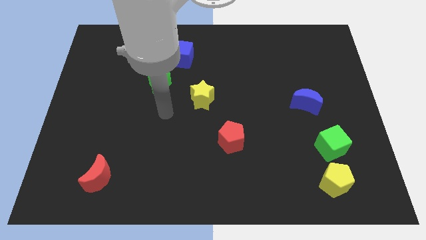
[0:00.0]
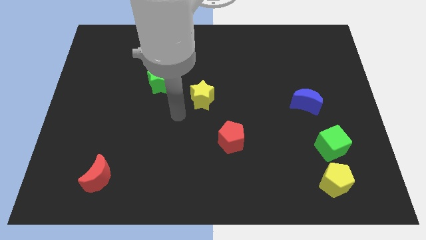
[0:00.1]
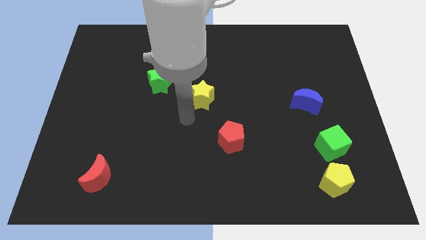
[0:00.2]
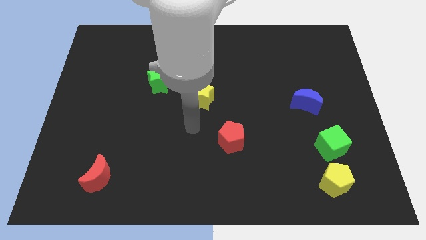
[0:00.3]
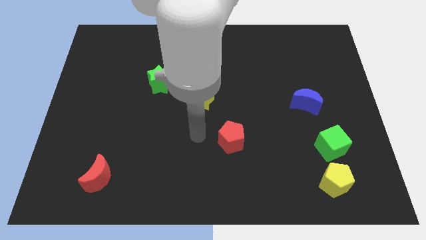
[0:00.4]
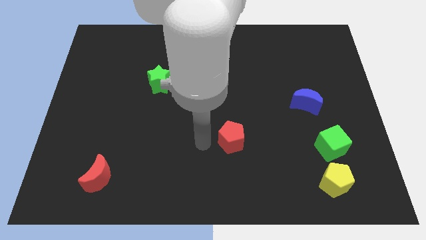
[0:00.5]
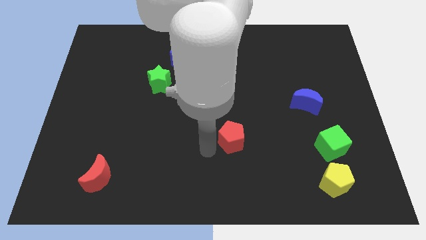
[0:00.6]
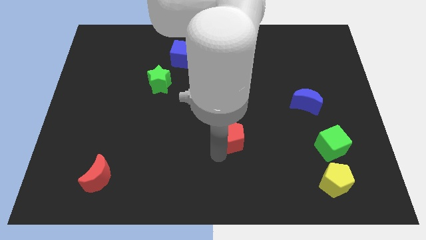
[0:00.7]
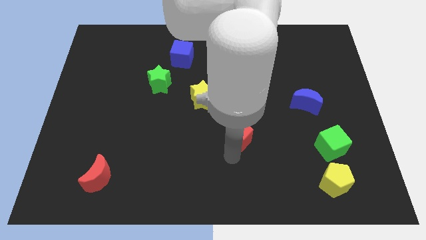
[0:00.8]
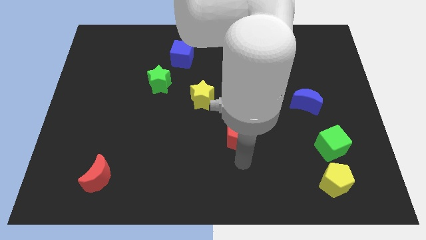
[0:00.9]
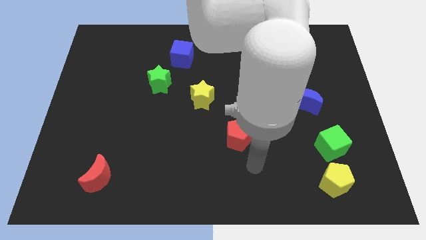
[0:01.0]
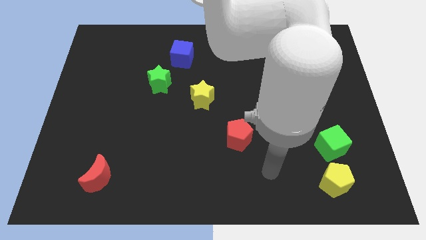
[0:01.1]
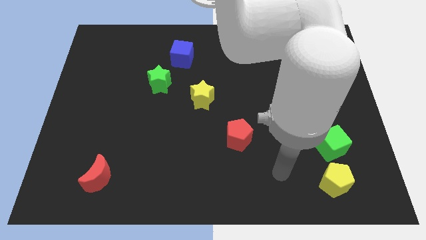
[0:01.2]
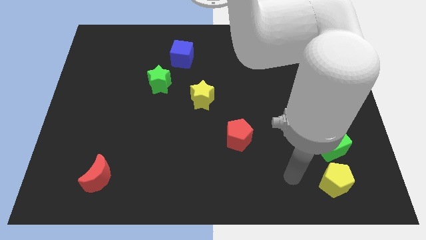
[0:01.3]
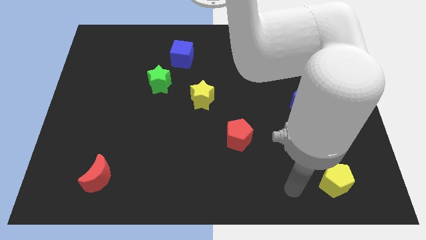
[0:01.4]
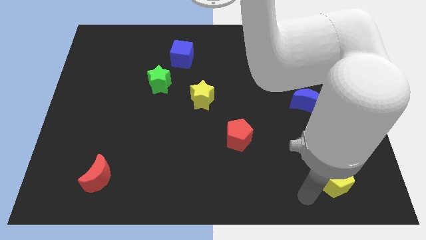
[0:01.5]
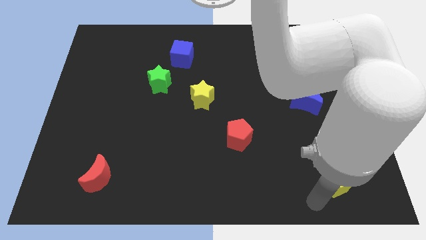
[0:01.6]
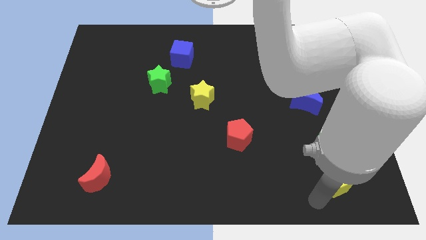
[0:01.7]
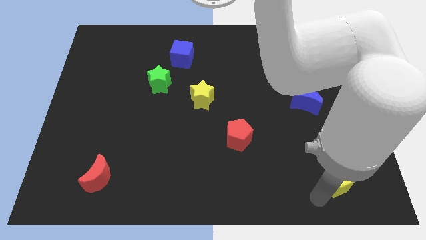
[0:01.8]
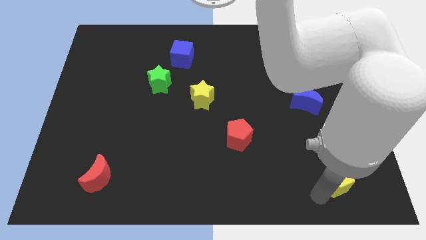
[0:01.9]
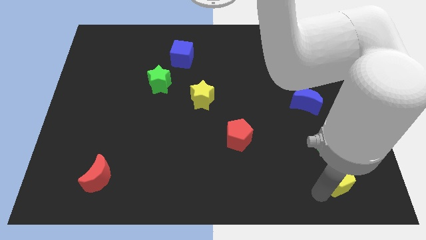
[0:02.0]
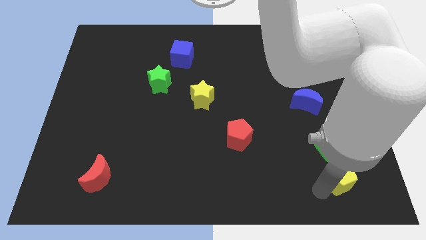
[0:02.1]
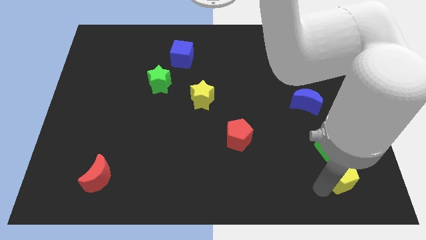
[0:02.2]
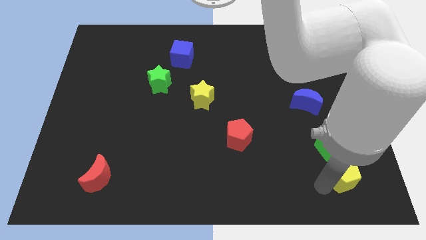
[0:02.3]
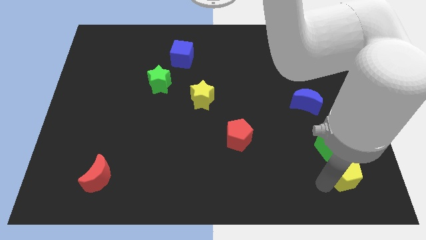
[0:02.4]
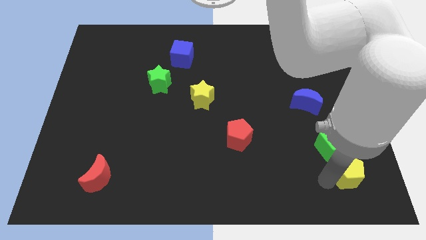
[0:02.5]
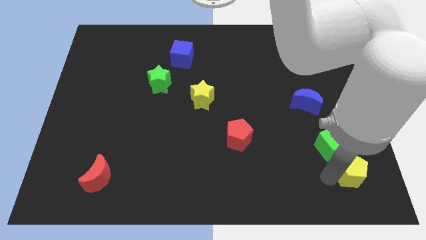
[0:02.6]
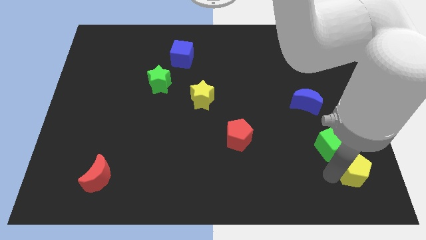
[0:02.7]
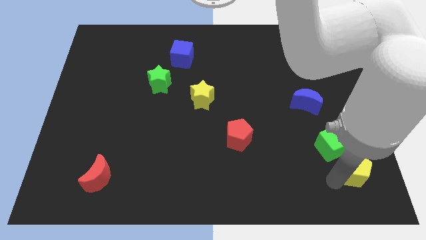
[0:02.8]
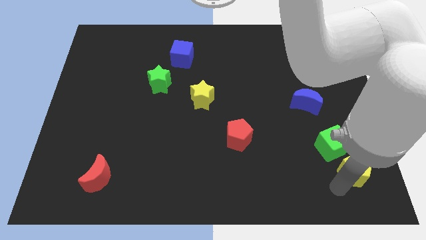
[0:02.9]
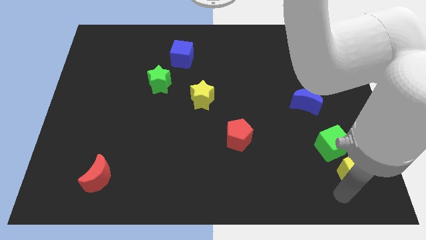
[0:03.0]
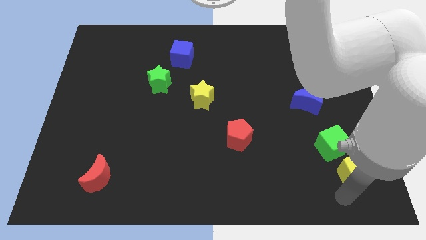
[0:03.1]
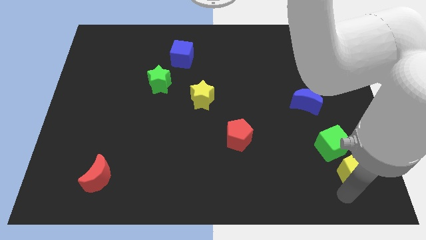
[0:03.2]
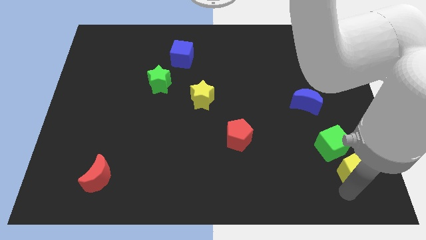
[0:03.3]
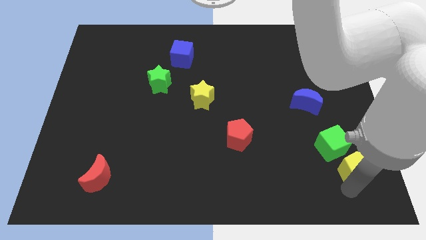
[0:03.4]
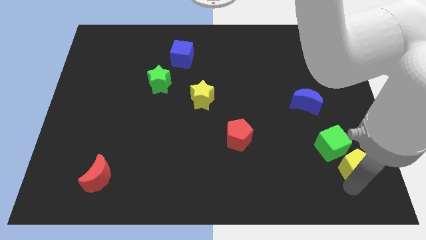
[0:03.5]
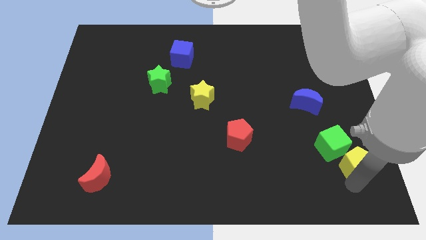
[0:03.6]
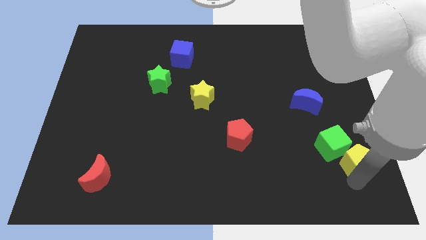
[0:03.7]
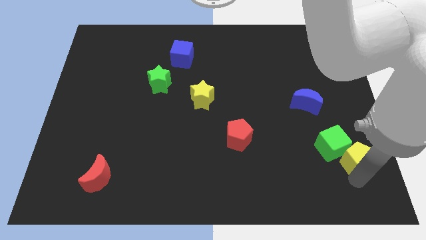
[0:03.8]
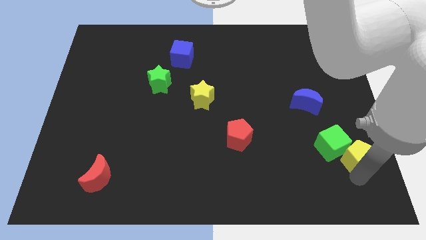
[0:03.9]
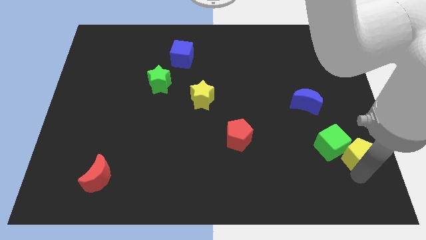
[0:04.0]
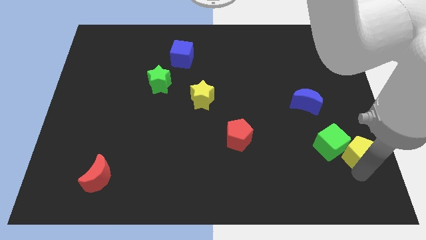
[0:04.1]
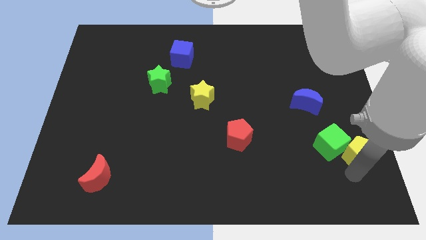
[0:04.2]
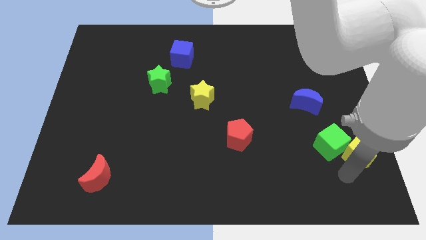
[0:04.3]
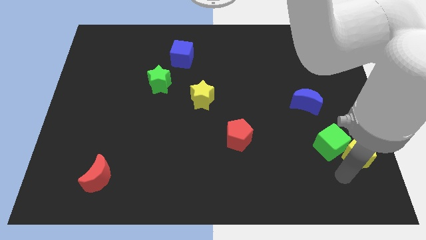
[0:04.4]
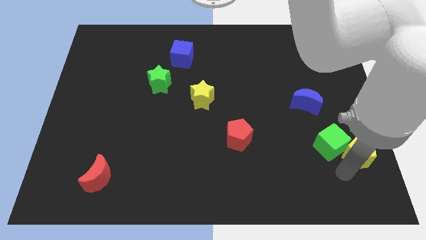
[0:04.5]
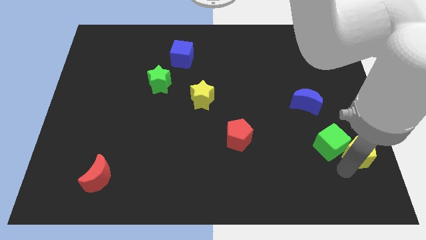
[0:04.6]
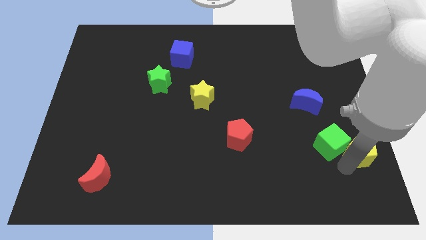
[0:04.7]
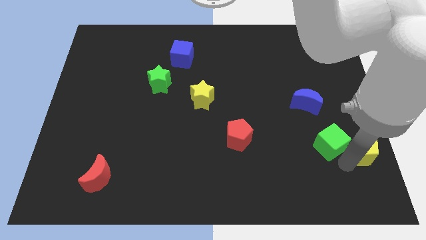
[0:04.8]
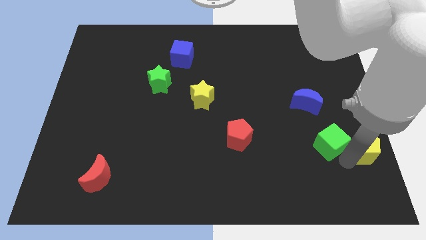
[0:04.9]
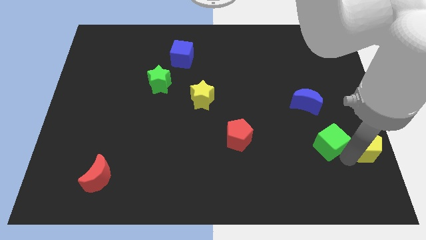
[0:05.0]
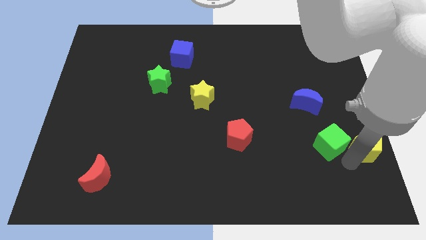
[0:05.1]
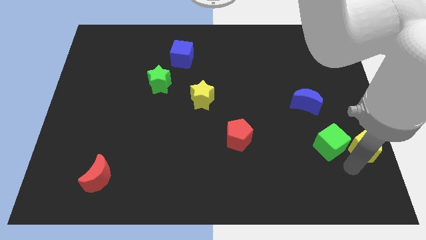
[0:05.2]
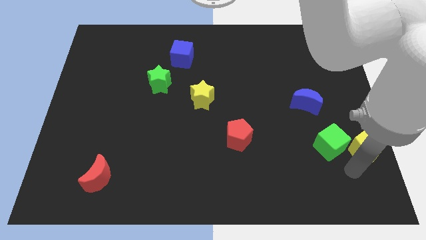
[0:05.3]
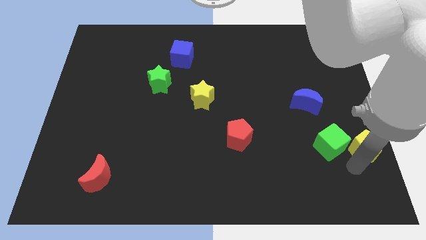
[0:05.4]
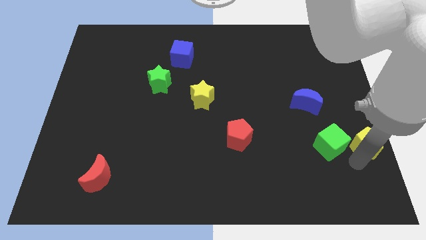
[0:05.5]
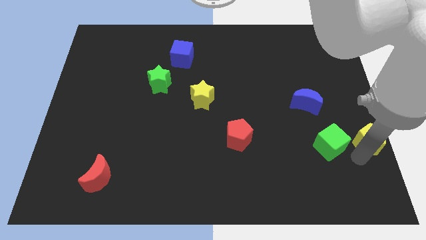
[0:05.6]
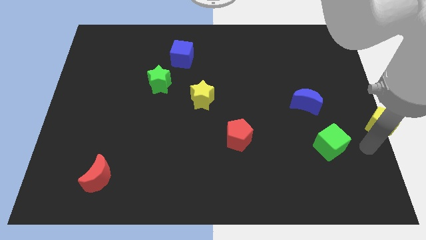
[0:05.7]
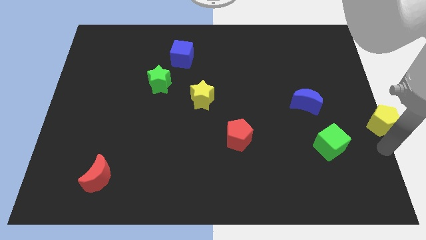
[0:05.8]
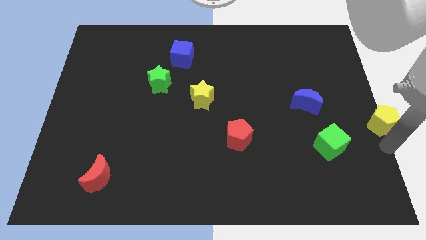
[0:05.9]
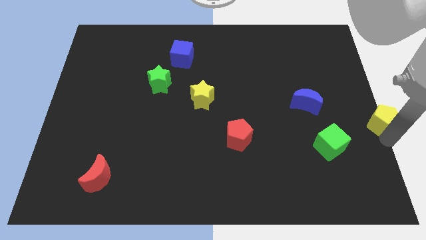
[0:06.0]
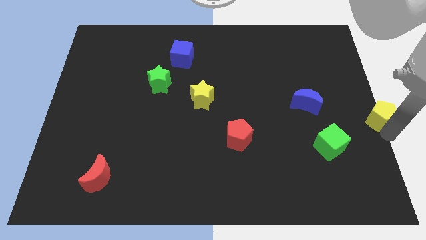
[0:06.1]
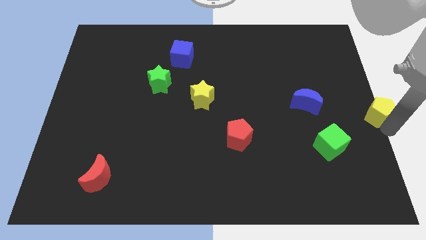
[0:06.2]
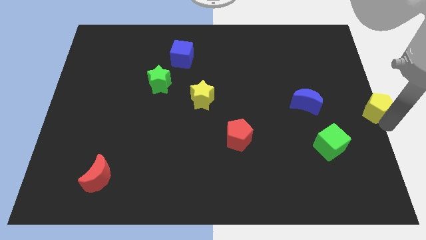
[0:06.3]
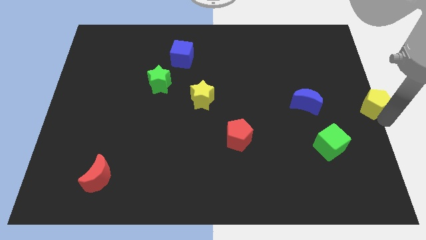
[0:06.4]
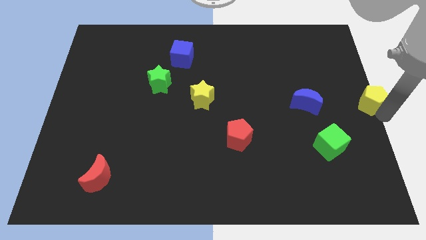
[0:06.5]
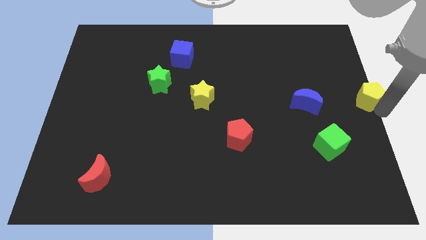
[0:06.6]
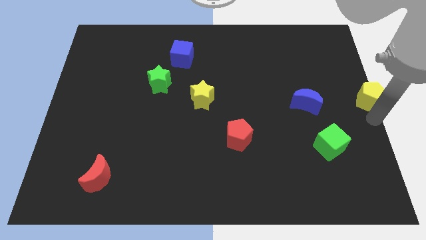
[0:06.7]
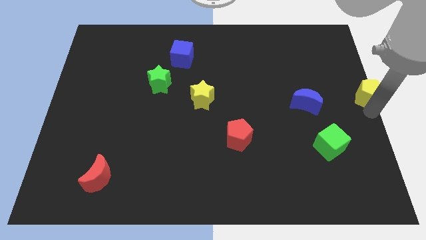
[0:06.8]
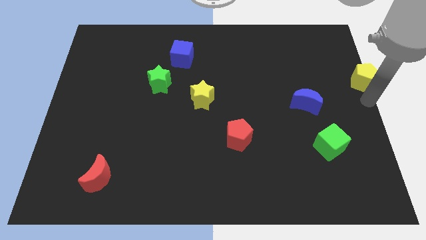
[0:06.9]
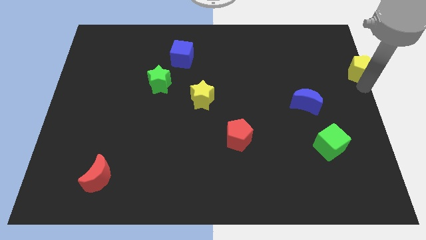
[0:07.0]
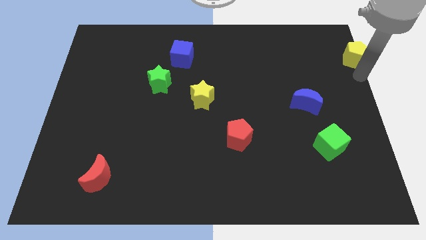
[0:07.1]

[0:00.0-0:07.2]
push the yellow pentagon to the top right of the board
